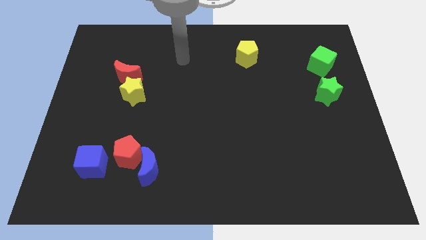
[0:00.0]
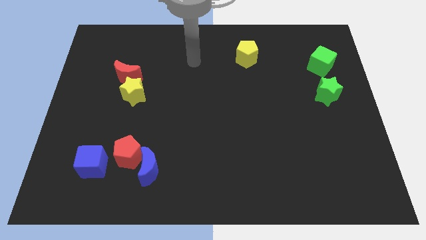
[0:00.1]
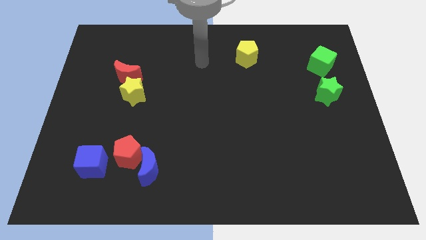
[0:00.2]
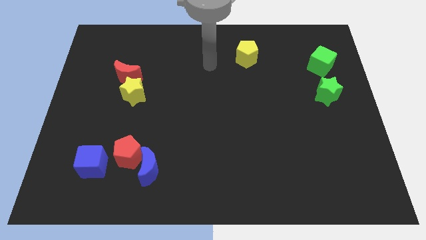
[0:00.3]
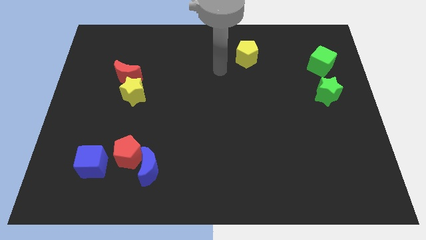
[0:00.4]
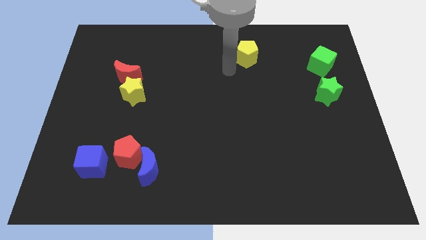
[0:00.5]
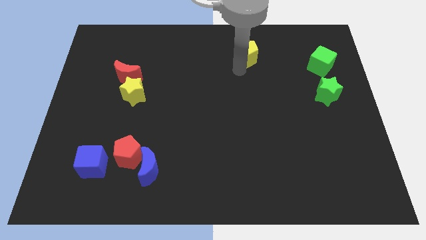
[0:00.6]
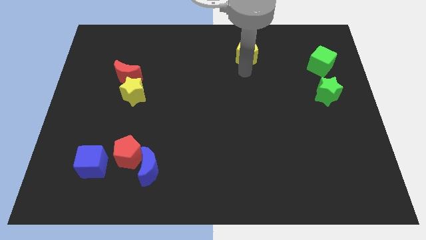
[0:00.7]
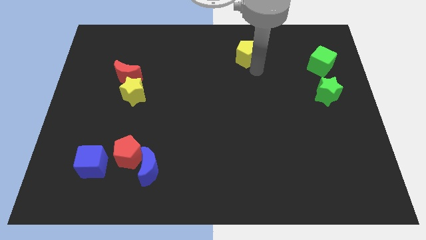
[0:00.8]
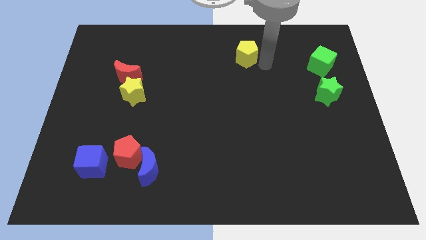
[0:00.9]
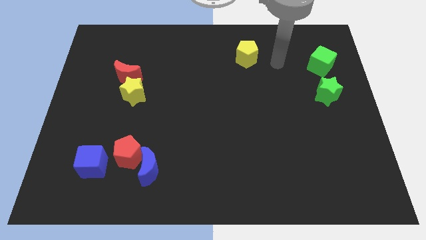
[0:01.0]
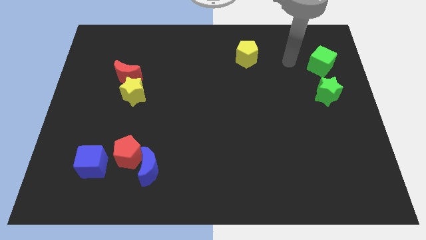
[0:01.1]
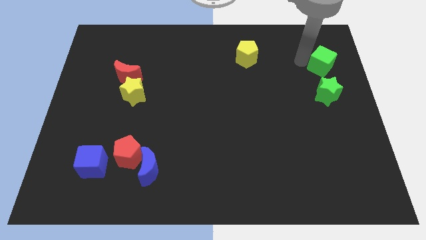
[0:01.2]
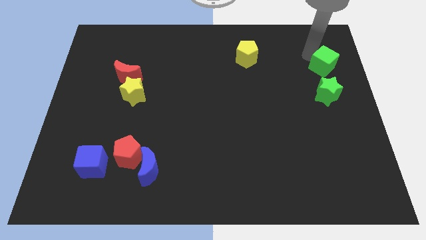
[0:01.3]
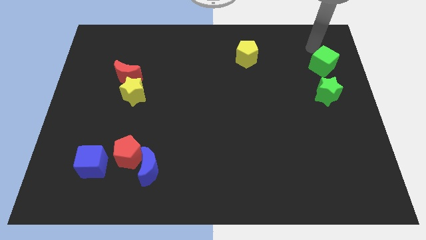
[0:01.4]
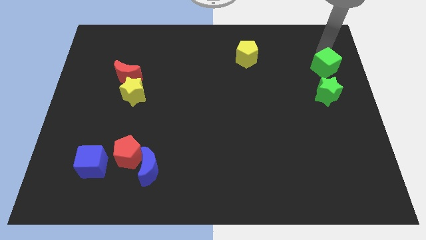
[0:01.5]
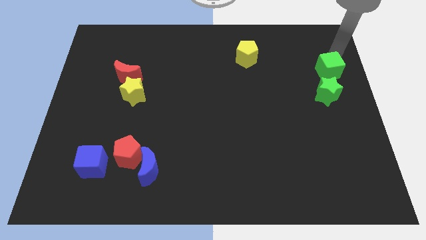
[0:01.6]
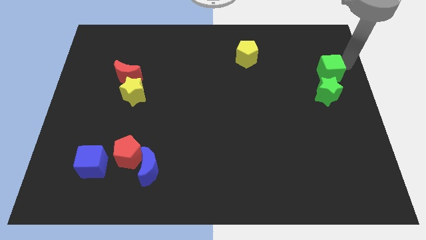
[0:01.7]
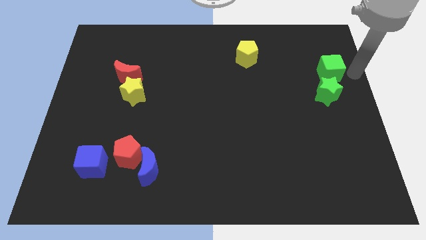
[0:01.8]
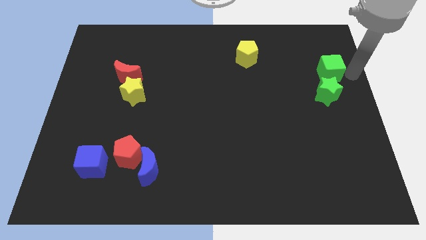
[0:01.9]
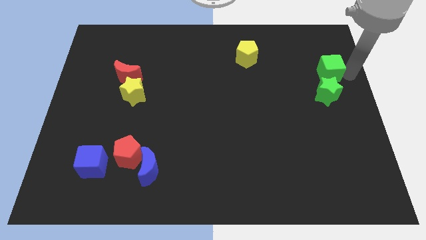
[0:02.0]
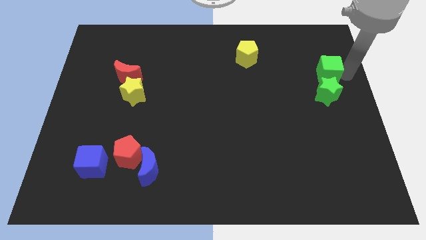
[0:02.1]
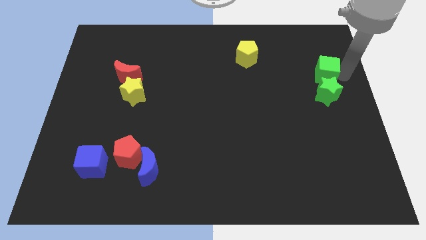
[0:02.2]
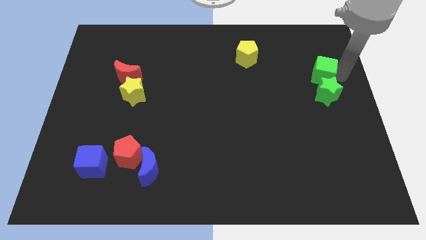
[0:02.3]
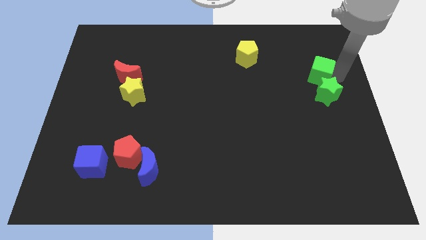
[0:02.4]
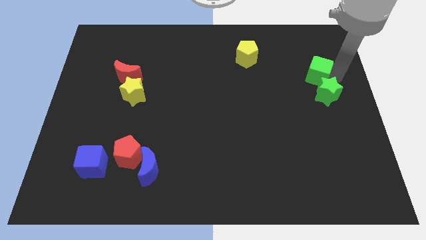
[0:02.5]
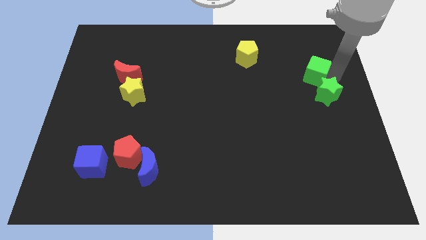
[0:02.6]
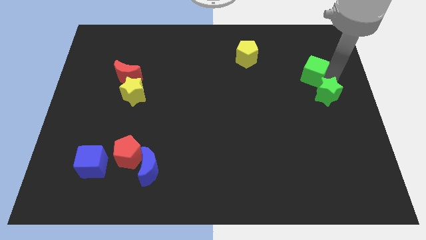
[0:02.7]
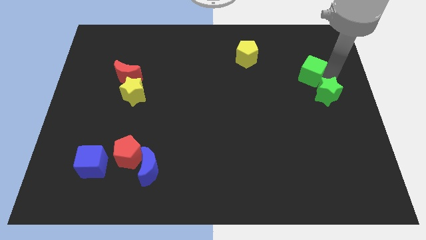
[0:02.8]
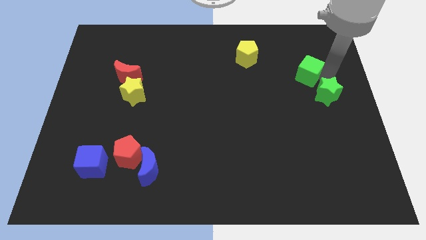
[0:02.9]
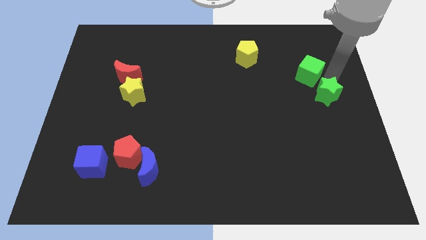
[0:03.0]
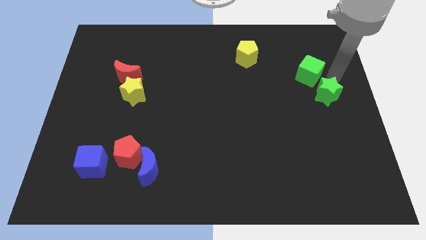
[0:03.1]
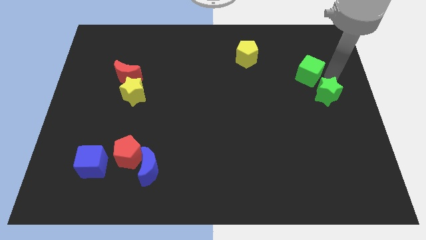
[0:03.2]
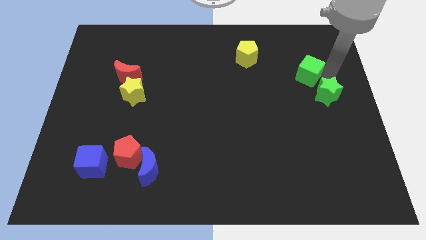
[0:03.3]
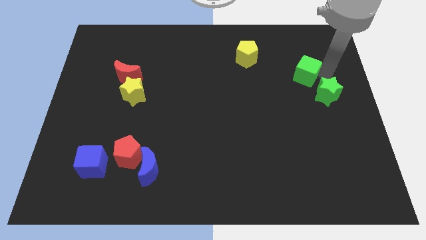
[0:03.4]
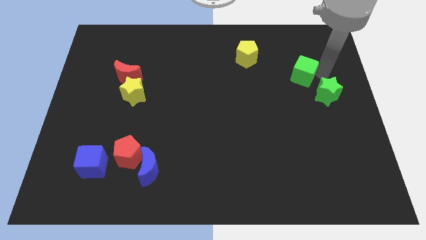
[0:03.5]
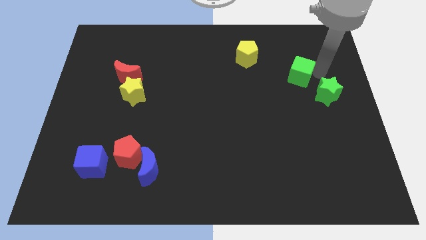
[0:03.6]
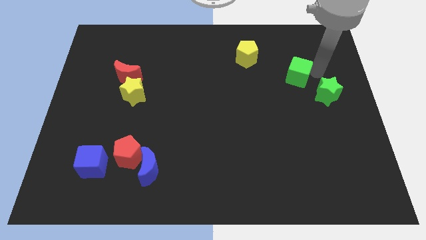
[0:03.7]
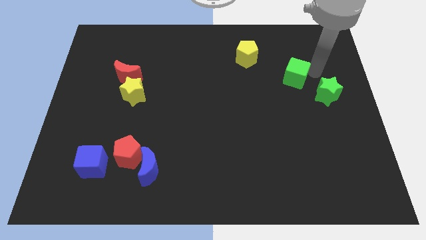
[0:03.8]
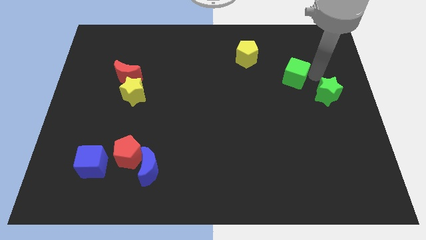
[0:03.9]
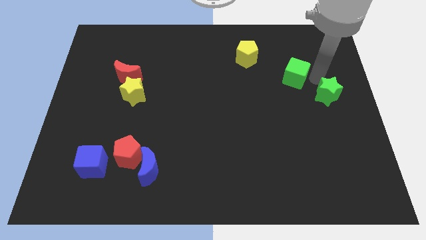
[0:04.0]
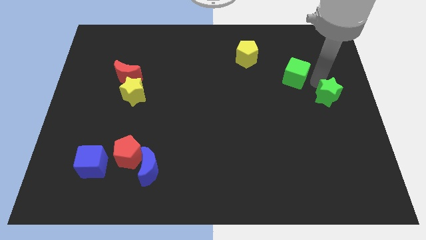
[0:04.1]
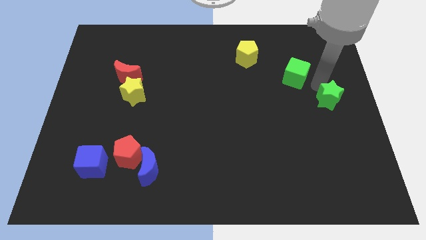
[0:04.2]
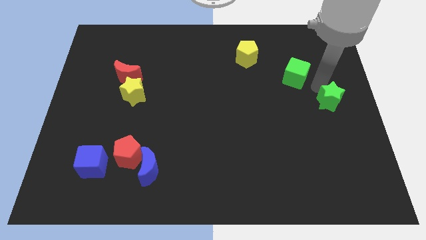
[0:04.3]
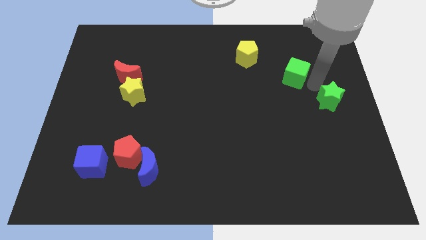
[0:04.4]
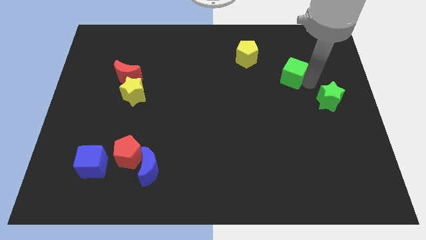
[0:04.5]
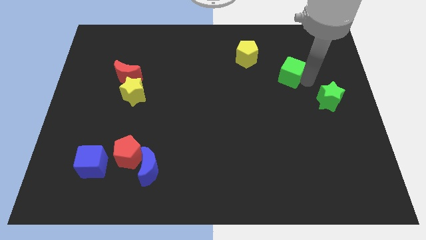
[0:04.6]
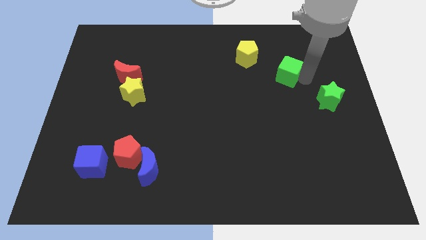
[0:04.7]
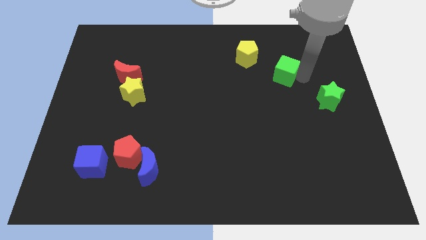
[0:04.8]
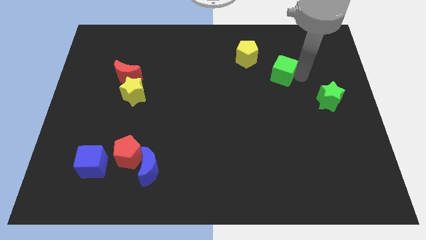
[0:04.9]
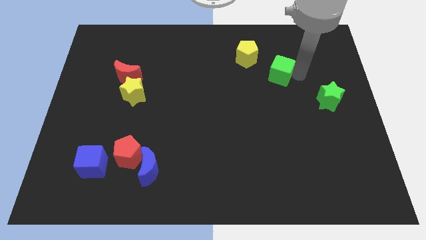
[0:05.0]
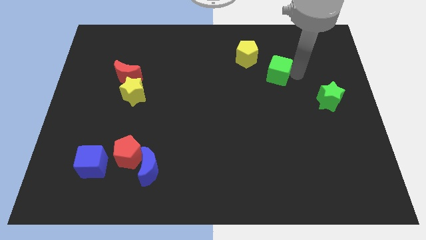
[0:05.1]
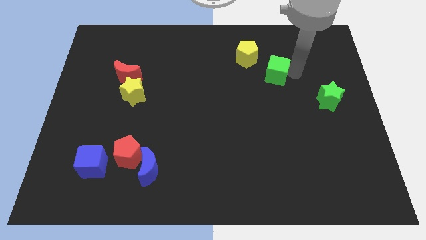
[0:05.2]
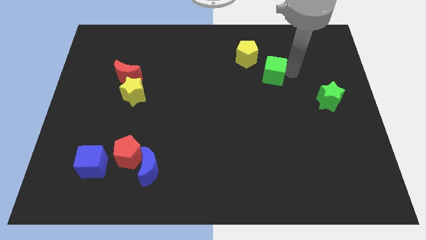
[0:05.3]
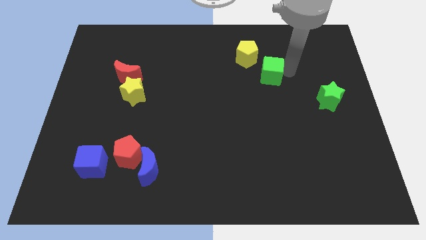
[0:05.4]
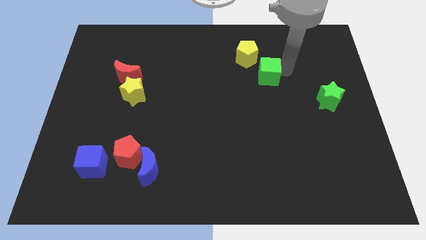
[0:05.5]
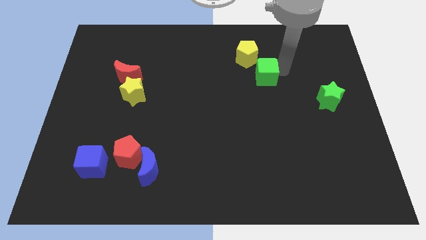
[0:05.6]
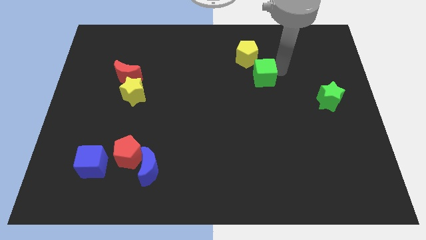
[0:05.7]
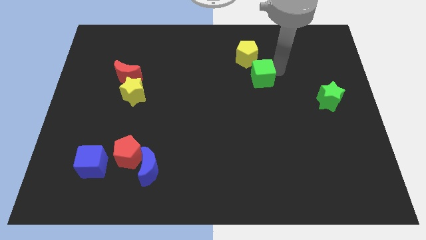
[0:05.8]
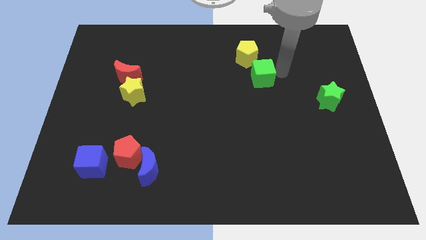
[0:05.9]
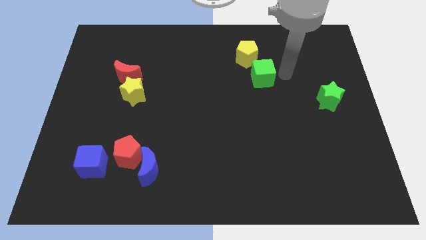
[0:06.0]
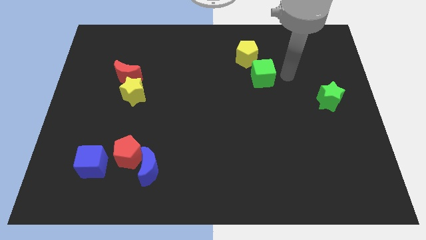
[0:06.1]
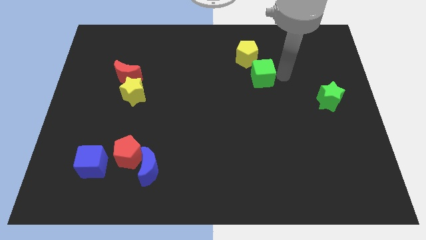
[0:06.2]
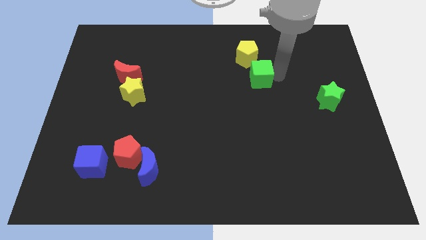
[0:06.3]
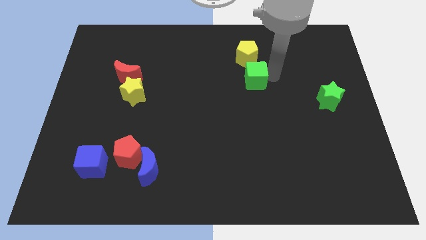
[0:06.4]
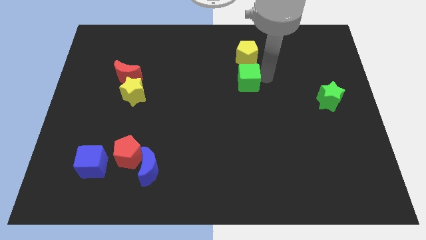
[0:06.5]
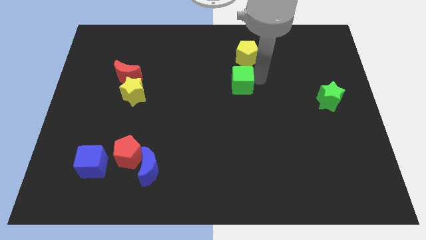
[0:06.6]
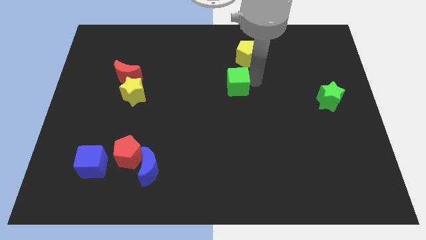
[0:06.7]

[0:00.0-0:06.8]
push the green cube to the left

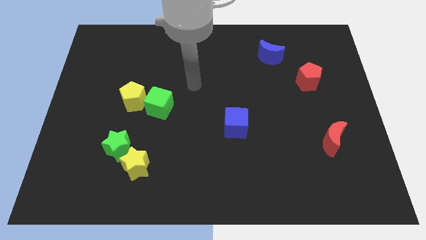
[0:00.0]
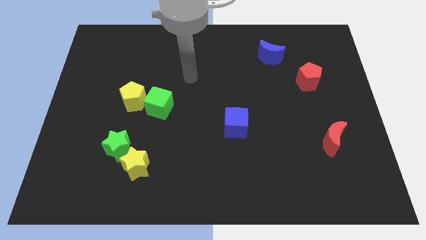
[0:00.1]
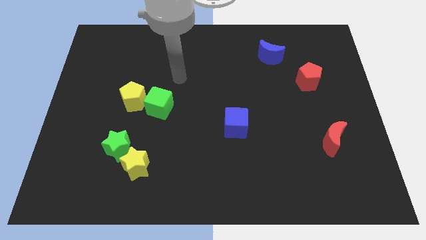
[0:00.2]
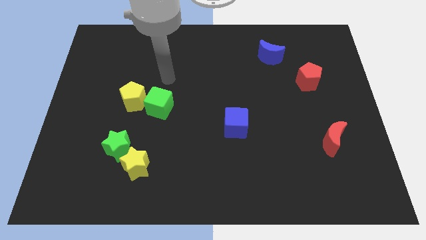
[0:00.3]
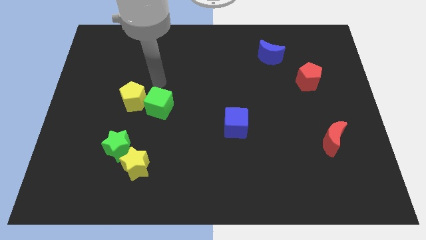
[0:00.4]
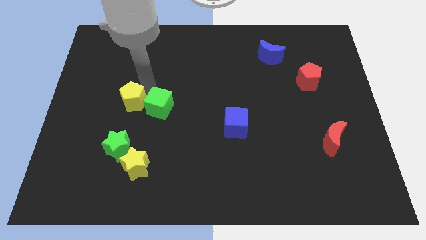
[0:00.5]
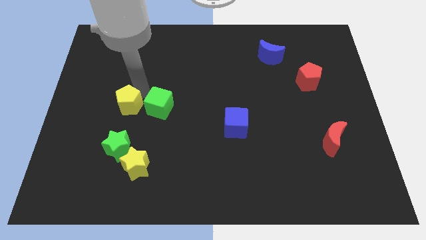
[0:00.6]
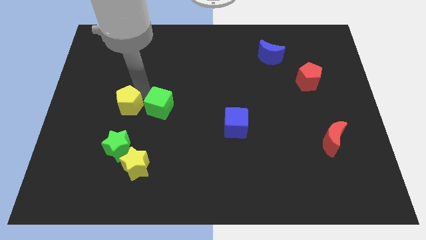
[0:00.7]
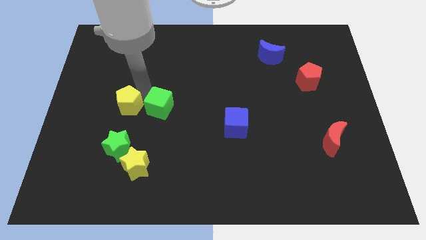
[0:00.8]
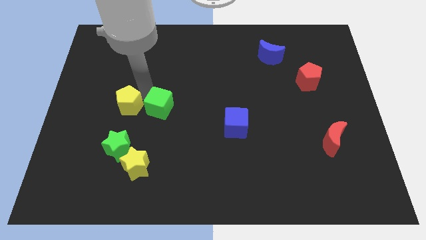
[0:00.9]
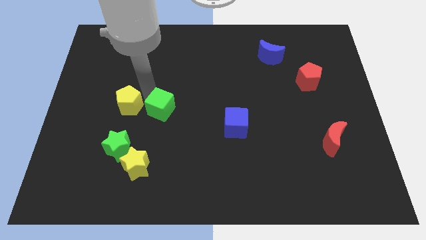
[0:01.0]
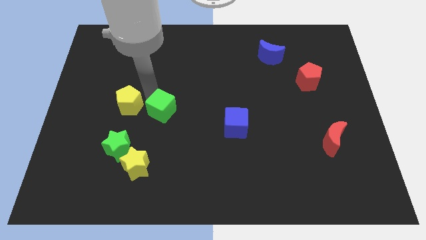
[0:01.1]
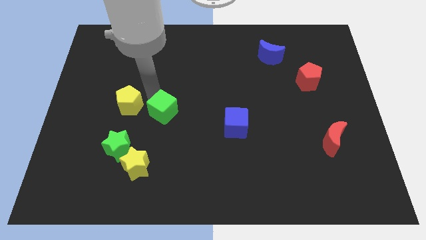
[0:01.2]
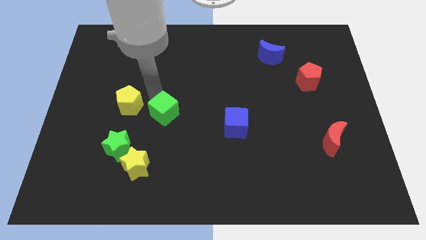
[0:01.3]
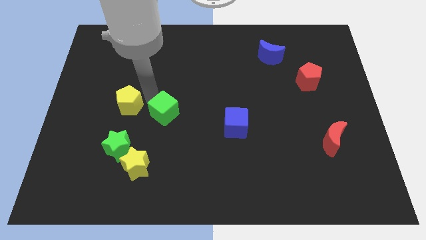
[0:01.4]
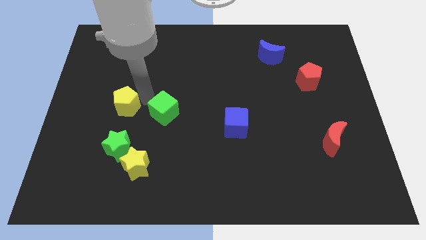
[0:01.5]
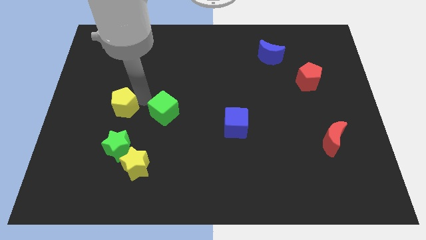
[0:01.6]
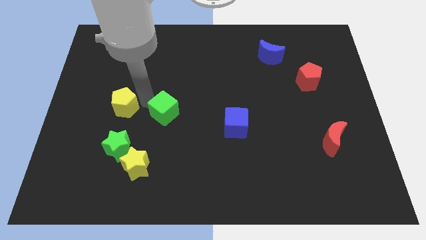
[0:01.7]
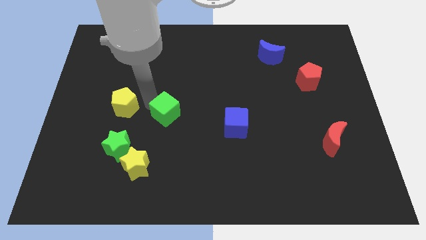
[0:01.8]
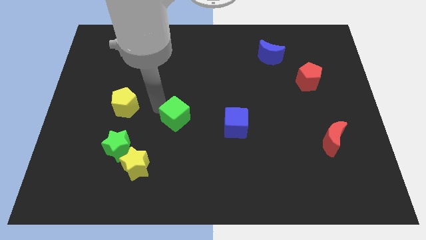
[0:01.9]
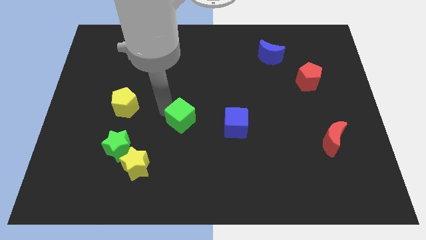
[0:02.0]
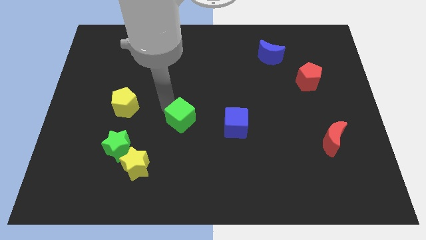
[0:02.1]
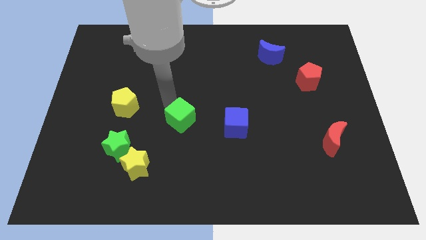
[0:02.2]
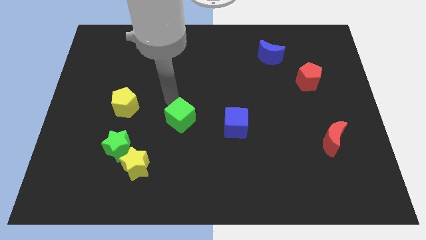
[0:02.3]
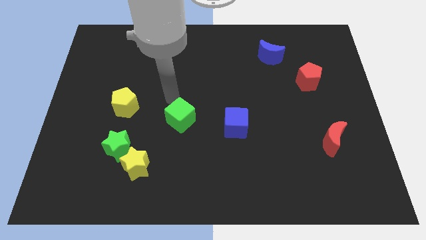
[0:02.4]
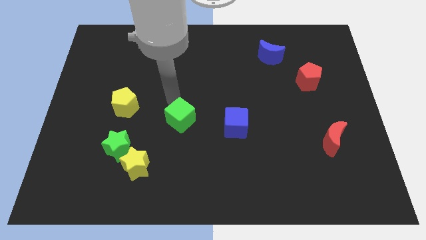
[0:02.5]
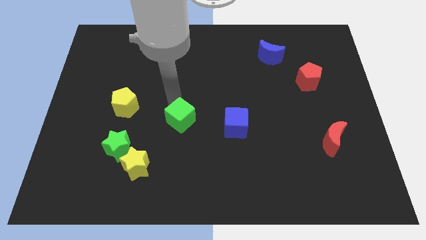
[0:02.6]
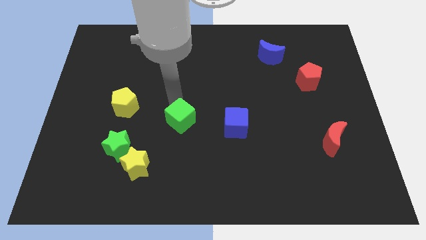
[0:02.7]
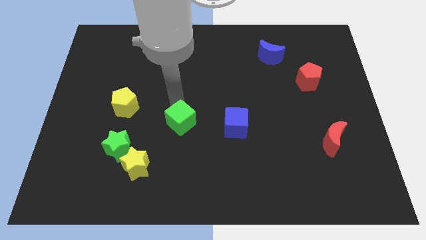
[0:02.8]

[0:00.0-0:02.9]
slightly move the green cube down and to the right
